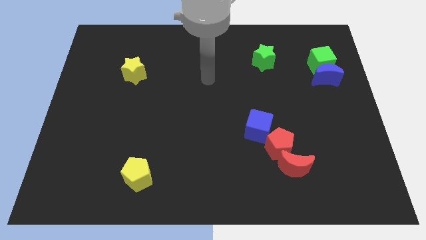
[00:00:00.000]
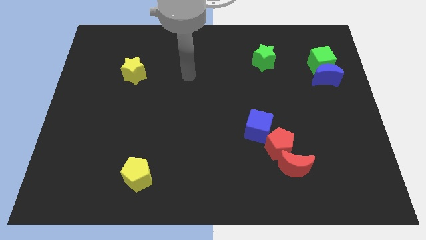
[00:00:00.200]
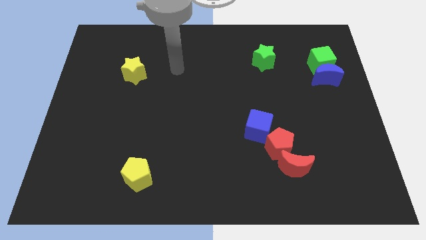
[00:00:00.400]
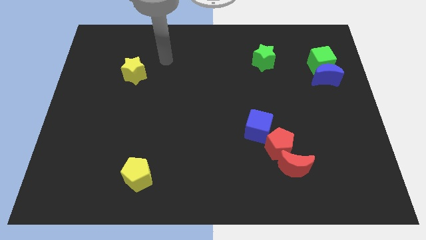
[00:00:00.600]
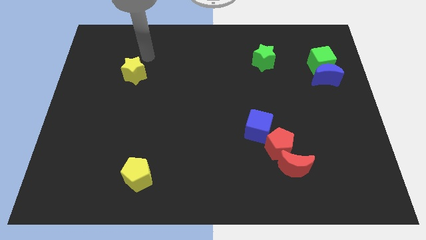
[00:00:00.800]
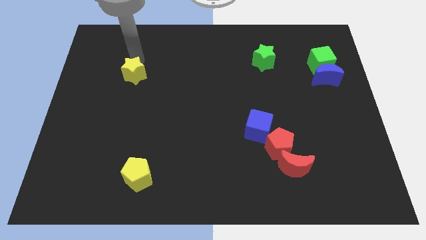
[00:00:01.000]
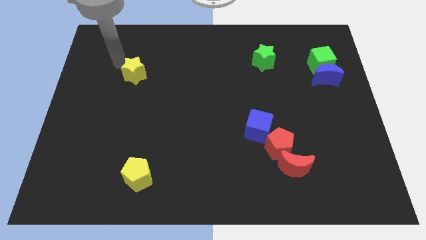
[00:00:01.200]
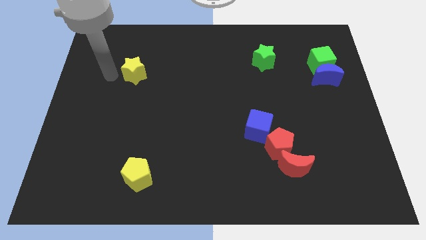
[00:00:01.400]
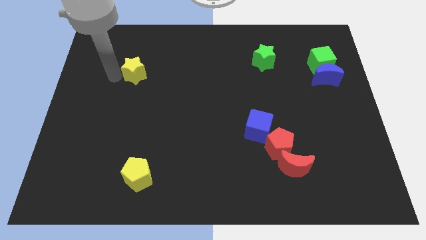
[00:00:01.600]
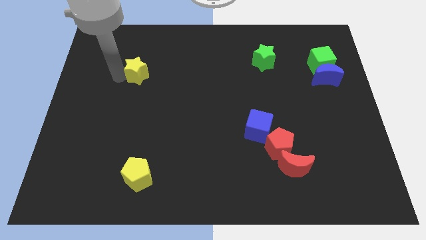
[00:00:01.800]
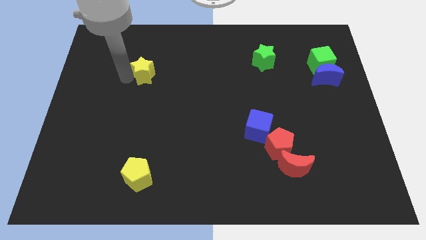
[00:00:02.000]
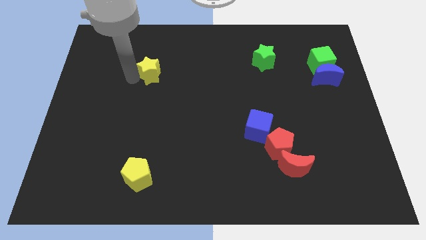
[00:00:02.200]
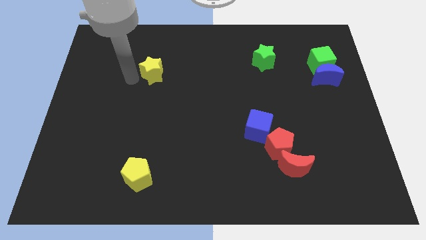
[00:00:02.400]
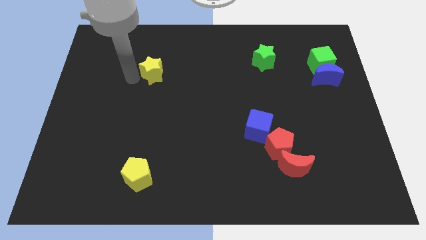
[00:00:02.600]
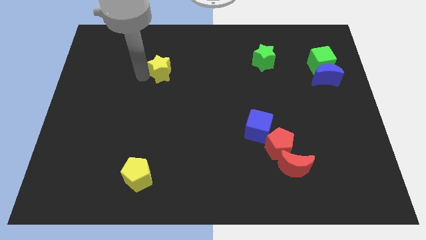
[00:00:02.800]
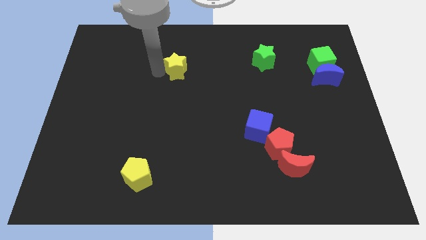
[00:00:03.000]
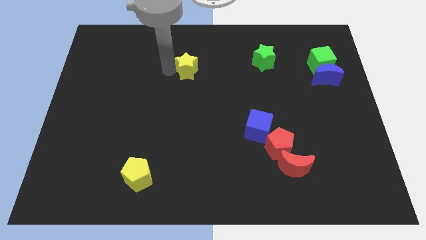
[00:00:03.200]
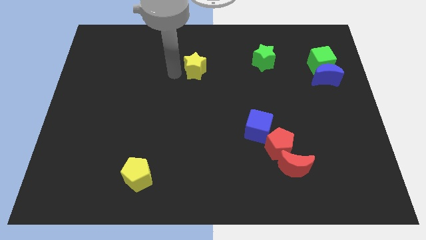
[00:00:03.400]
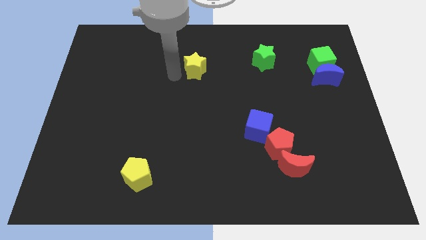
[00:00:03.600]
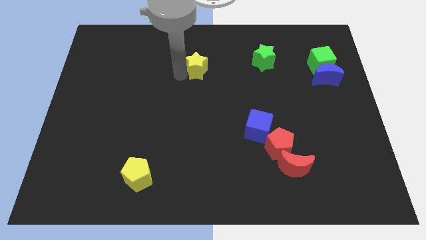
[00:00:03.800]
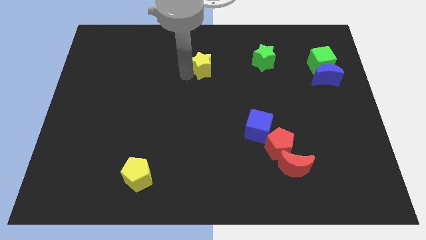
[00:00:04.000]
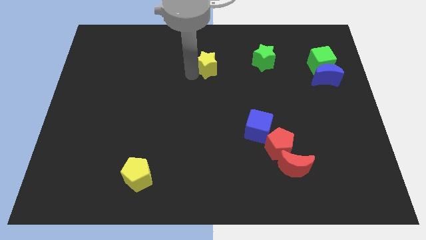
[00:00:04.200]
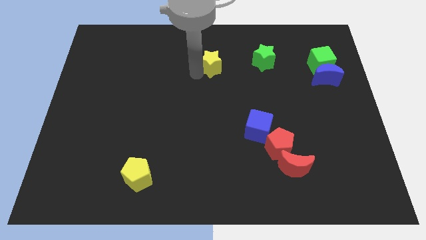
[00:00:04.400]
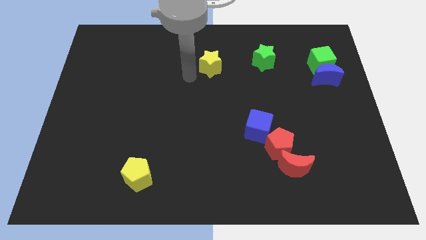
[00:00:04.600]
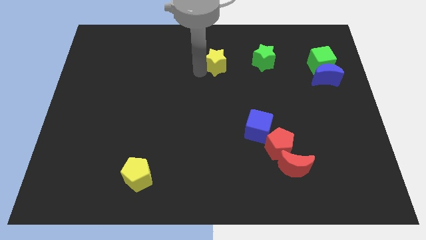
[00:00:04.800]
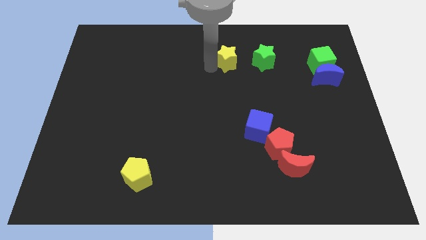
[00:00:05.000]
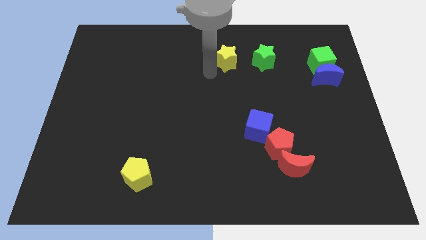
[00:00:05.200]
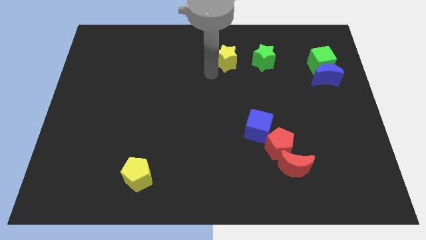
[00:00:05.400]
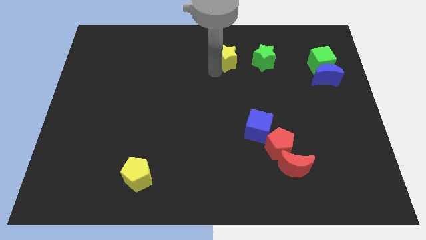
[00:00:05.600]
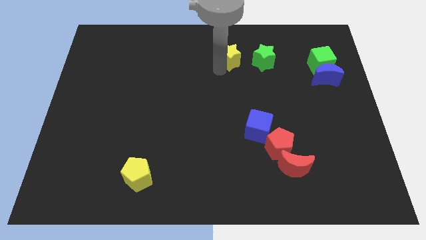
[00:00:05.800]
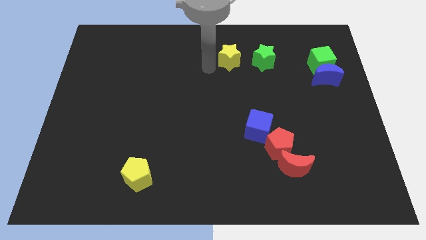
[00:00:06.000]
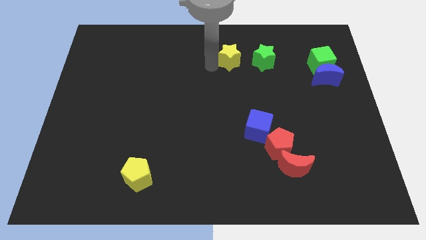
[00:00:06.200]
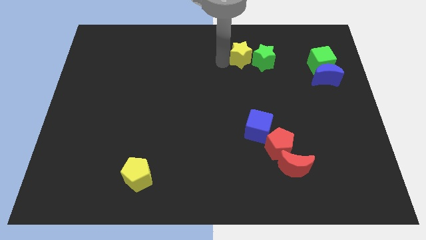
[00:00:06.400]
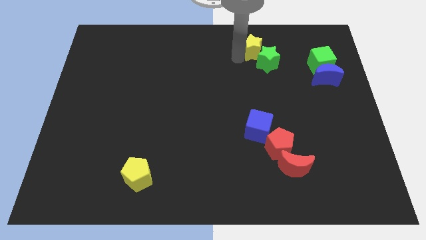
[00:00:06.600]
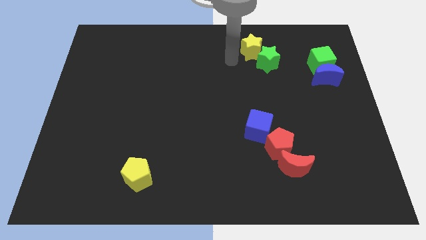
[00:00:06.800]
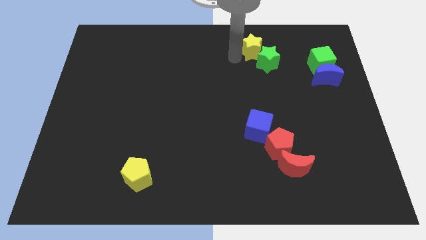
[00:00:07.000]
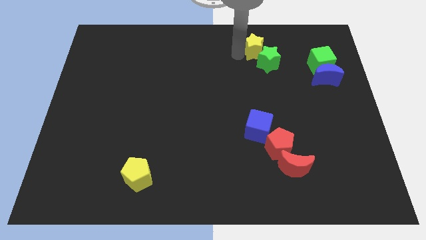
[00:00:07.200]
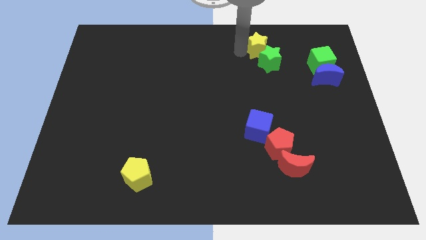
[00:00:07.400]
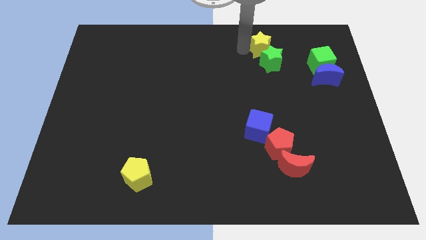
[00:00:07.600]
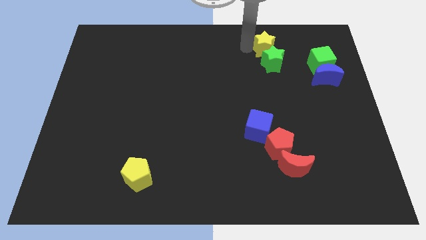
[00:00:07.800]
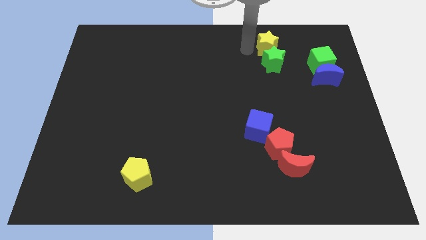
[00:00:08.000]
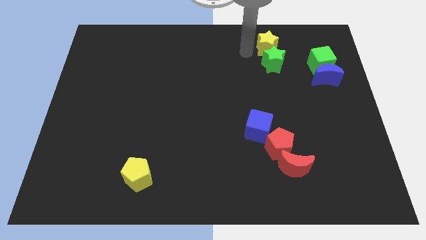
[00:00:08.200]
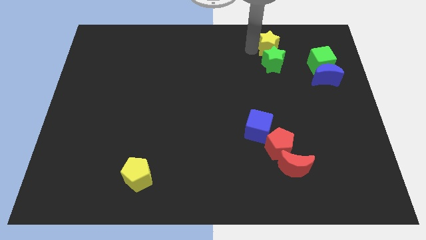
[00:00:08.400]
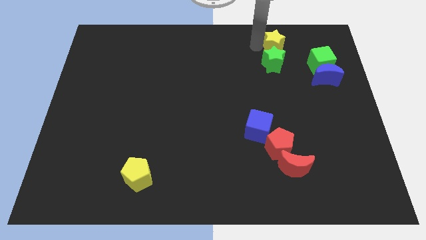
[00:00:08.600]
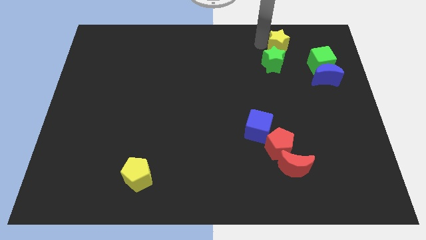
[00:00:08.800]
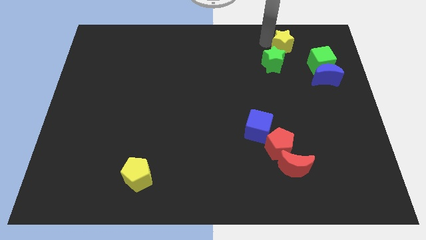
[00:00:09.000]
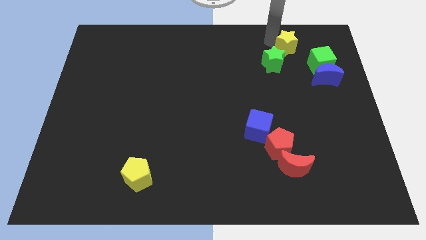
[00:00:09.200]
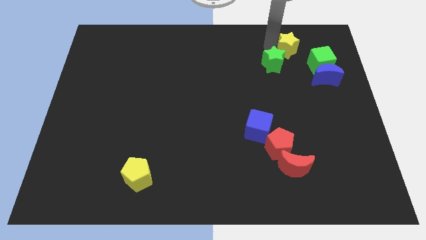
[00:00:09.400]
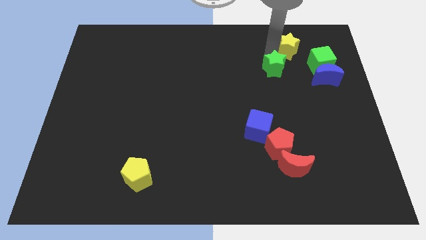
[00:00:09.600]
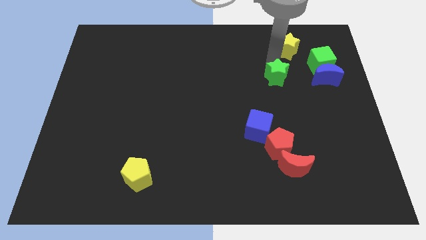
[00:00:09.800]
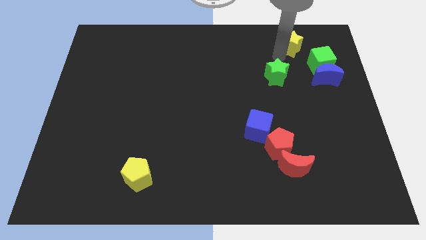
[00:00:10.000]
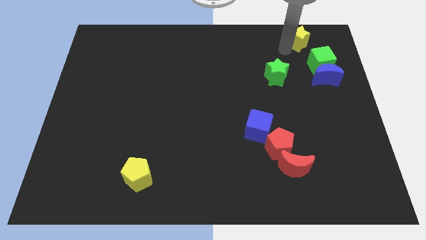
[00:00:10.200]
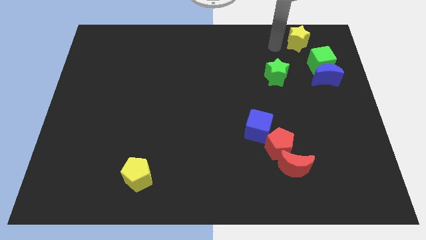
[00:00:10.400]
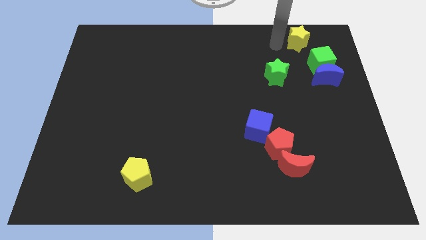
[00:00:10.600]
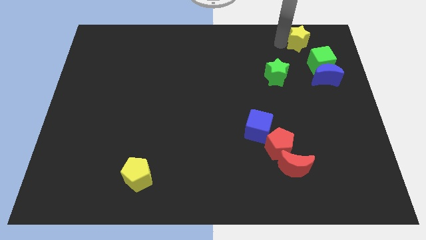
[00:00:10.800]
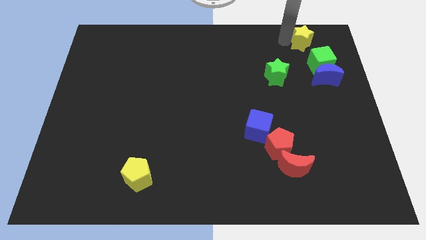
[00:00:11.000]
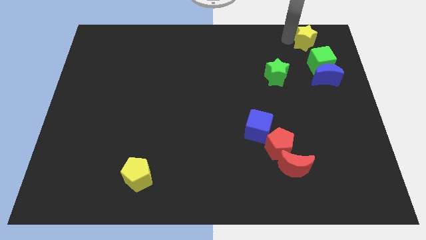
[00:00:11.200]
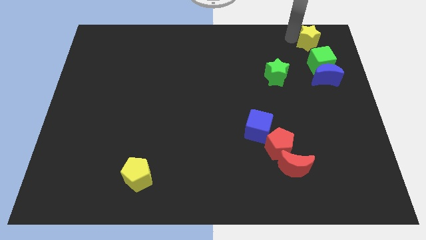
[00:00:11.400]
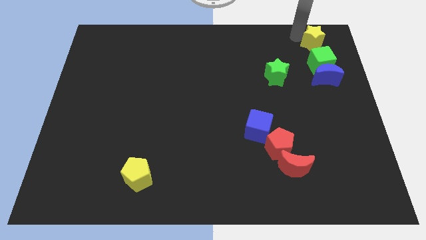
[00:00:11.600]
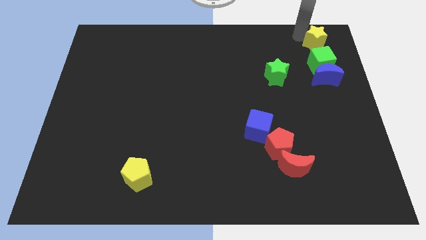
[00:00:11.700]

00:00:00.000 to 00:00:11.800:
put the yellow star to the upper right corner
